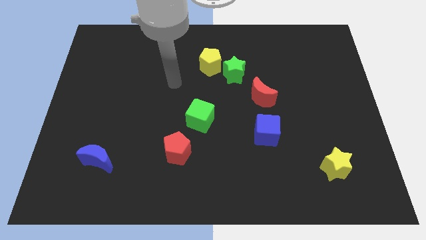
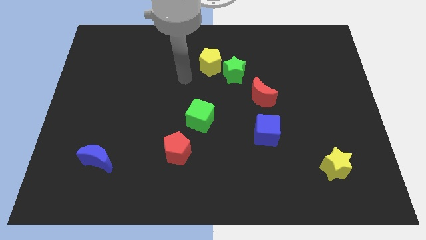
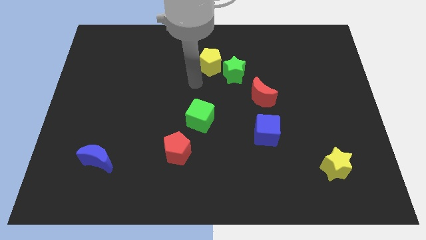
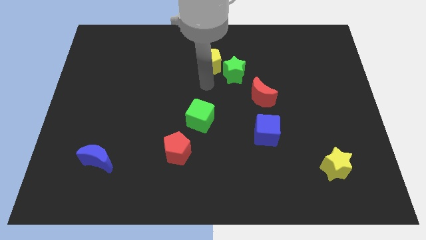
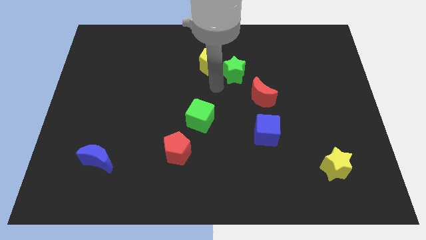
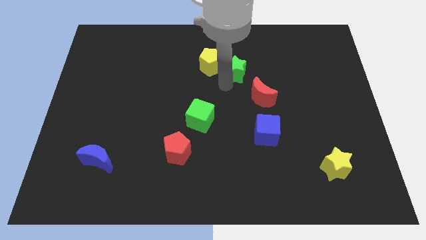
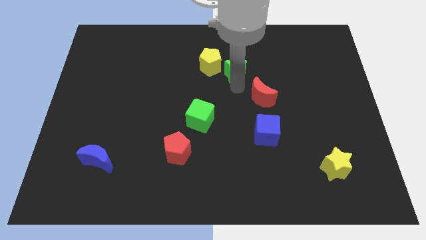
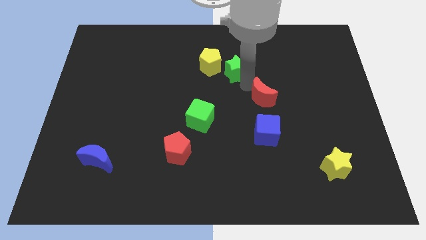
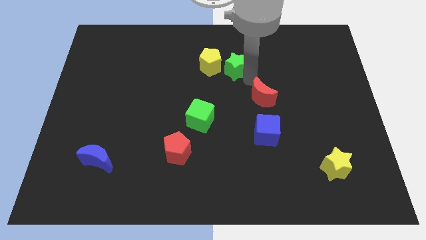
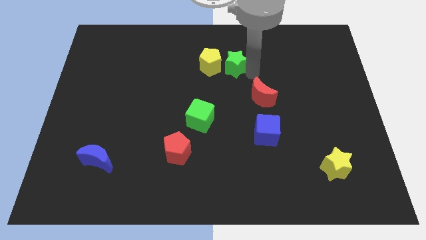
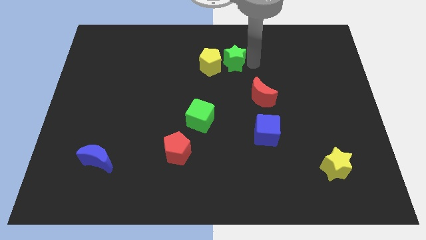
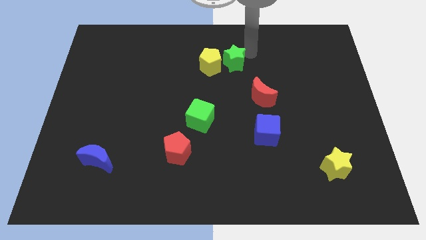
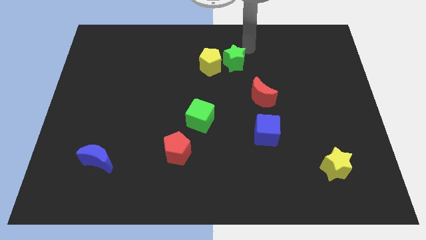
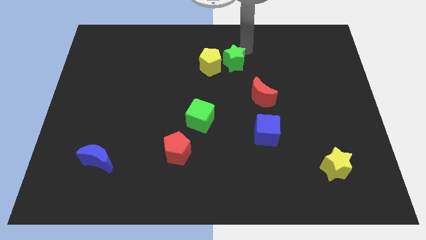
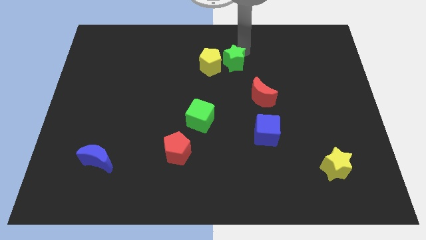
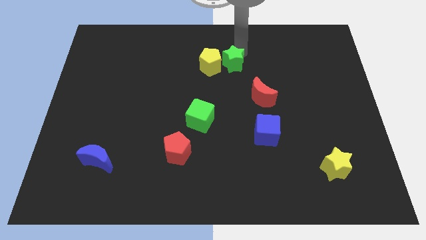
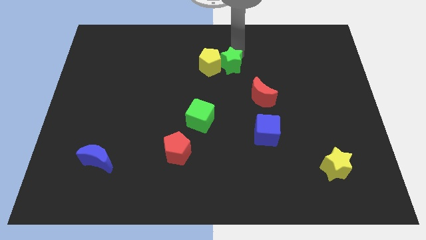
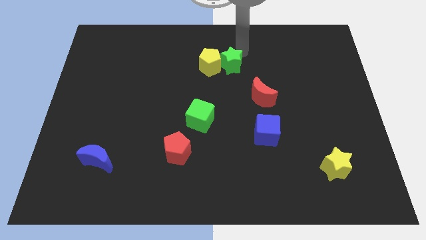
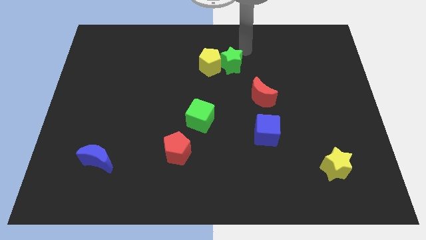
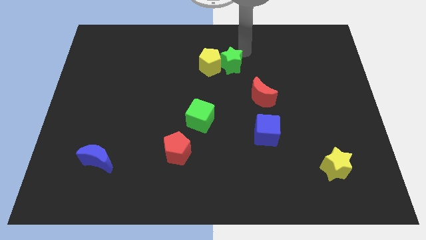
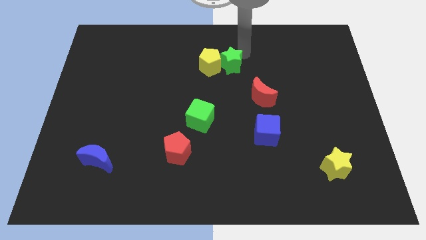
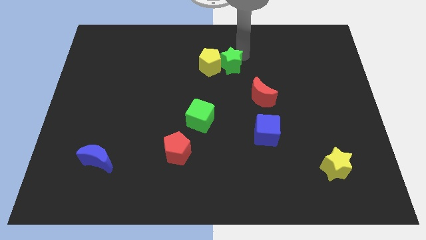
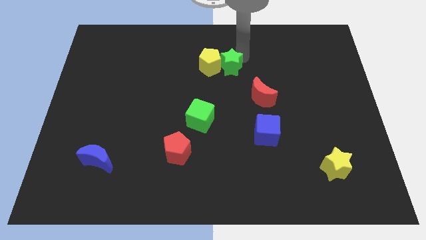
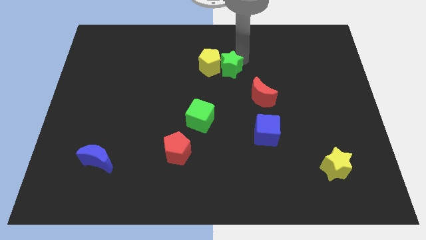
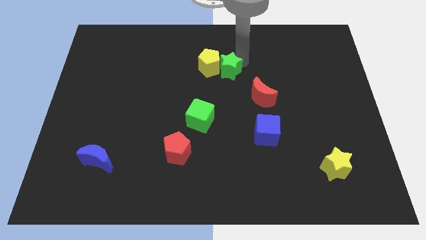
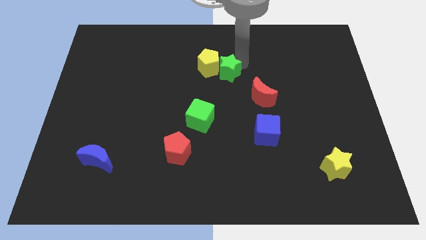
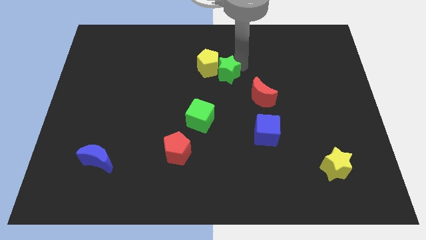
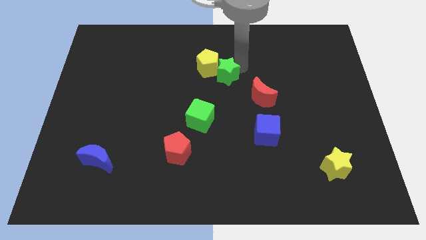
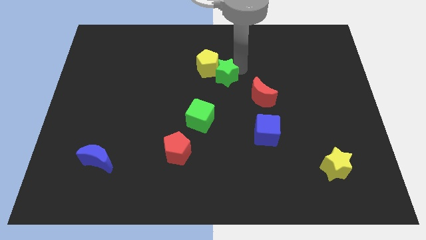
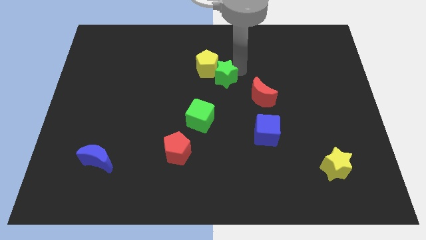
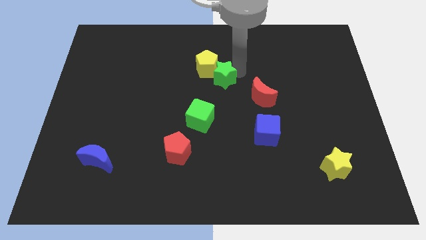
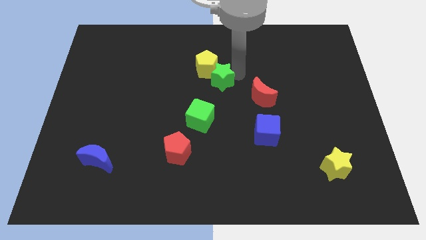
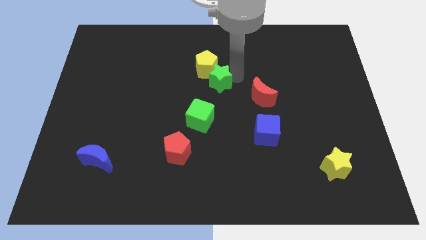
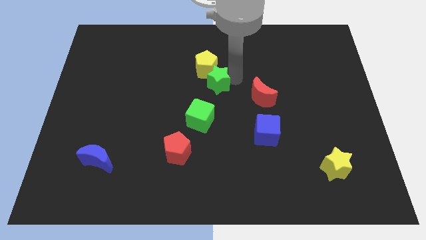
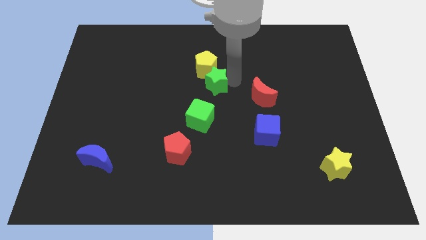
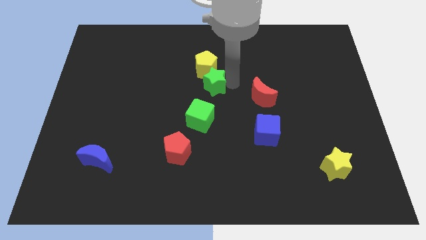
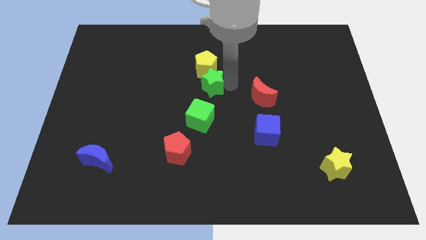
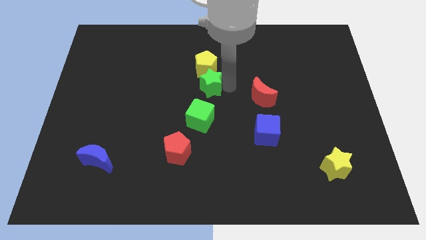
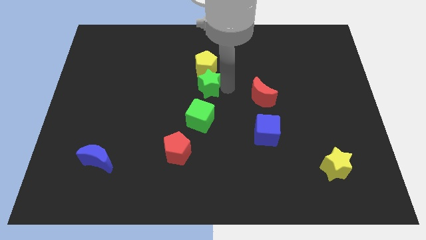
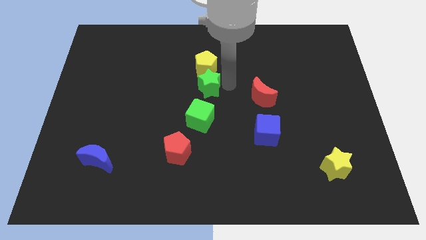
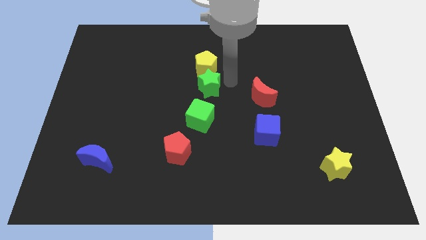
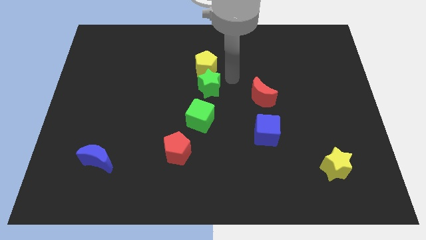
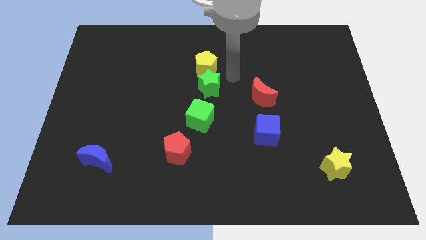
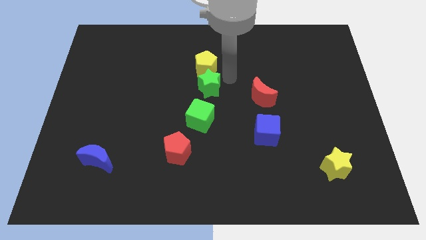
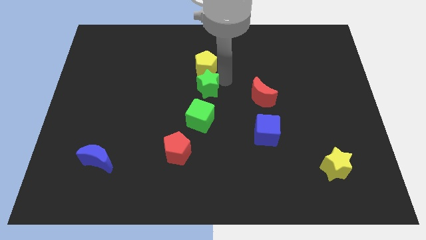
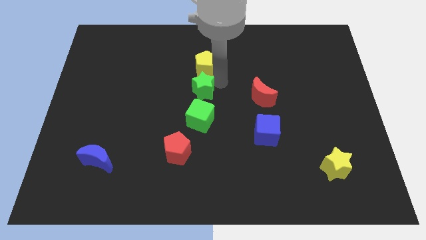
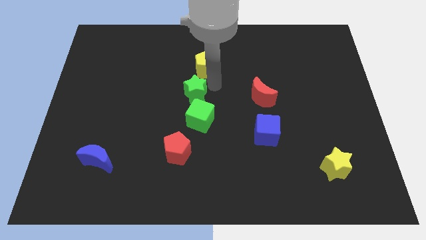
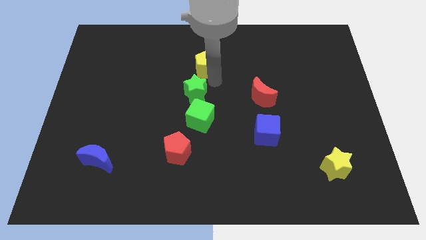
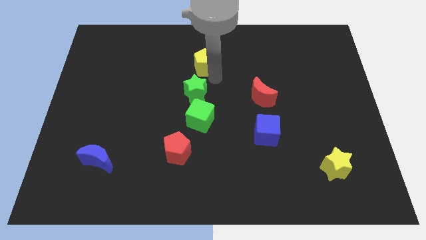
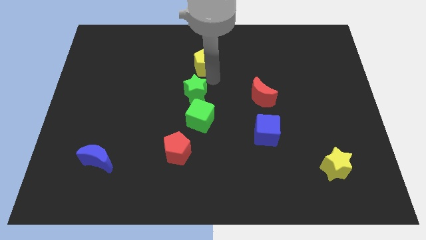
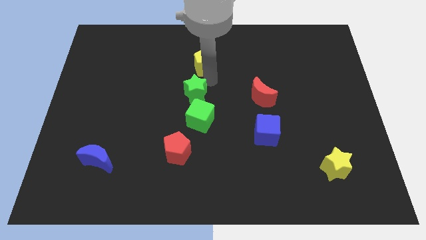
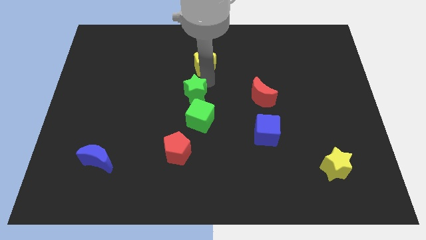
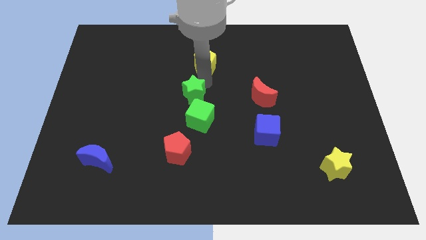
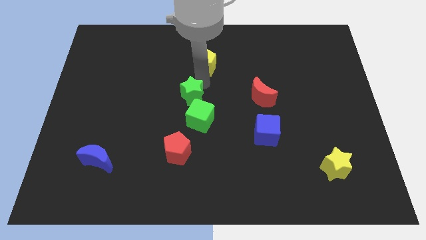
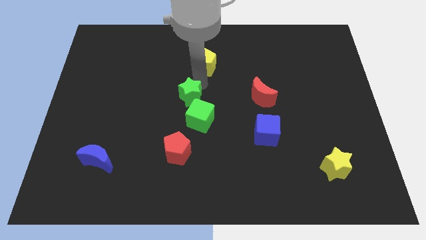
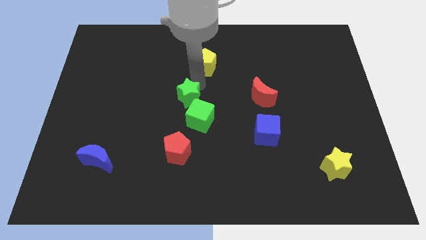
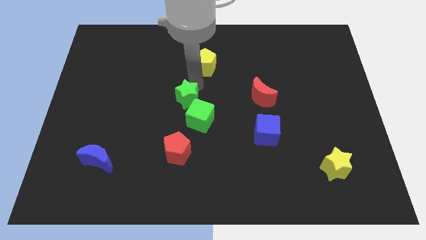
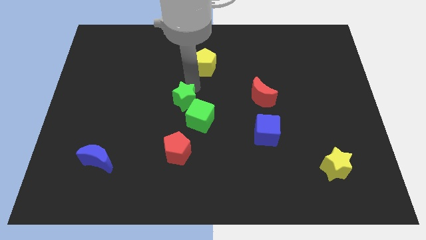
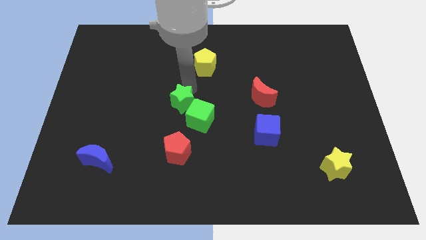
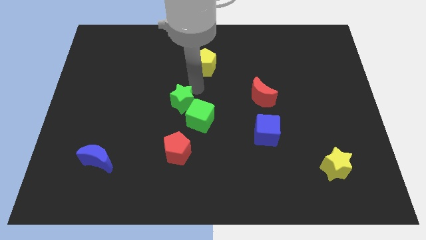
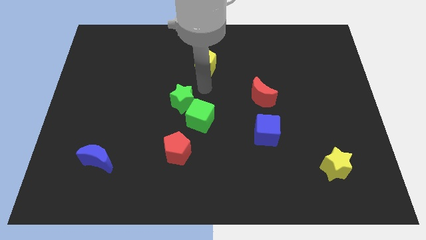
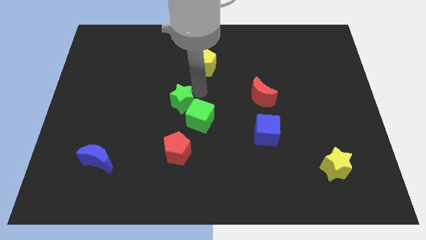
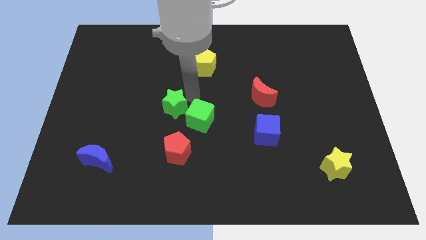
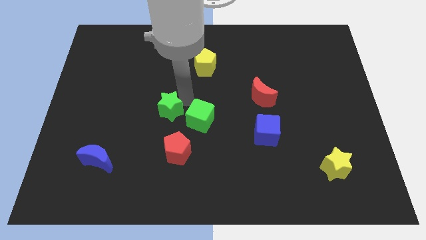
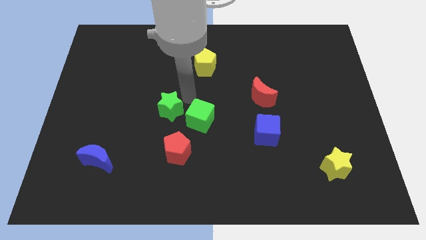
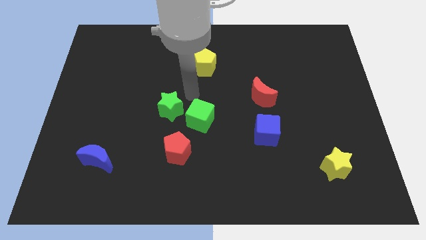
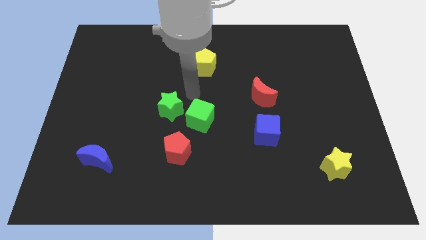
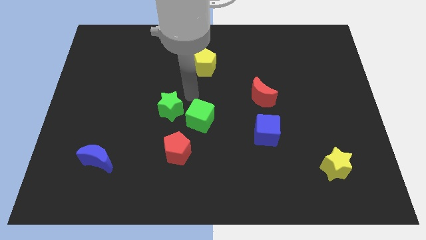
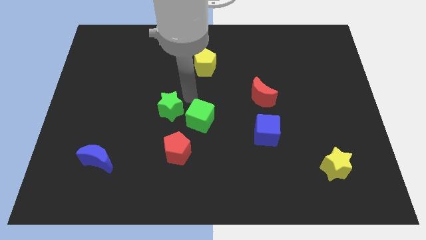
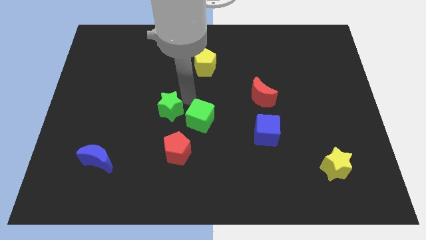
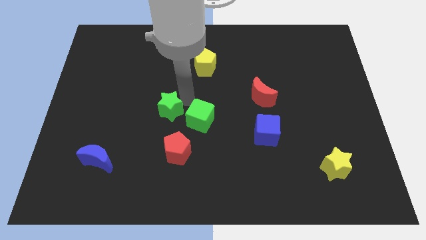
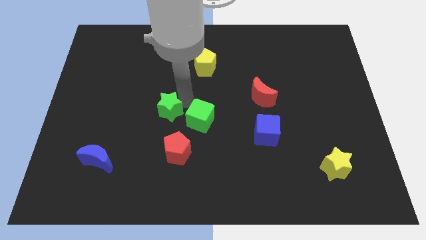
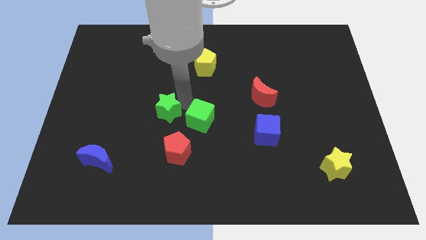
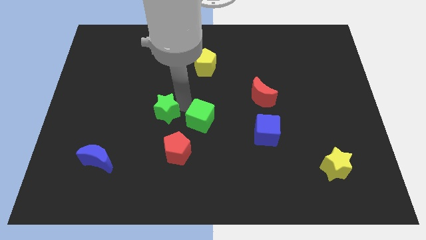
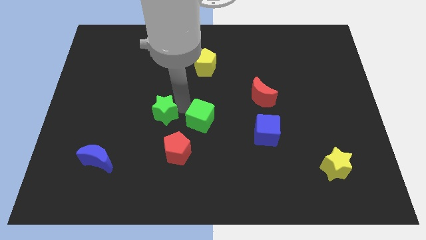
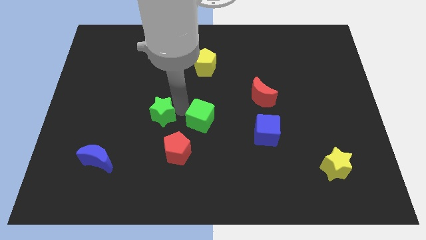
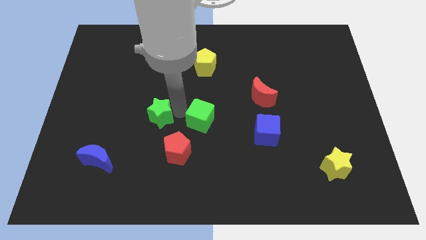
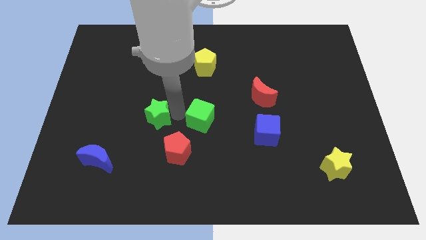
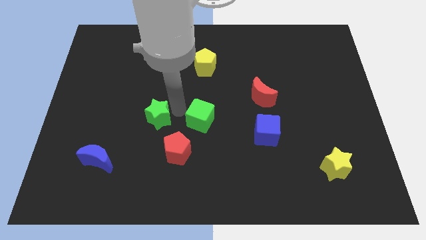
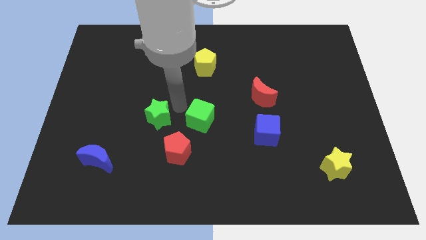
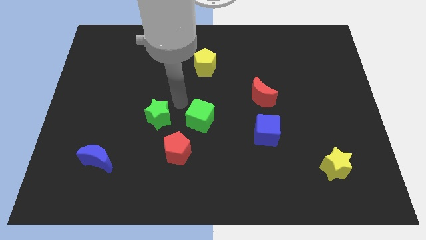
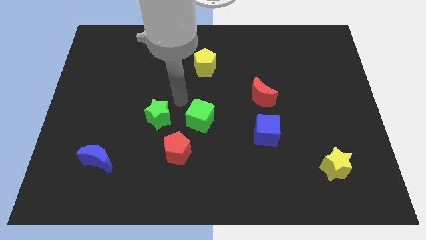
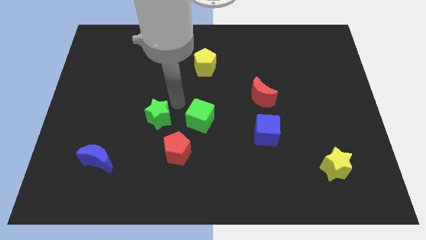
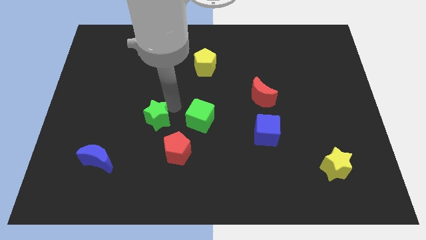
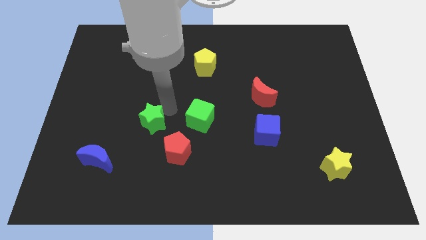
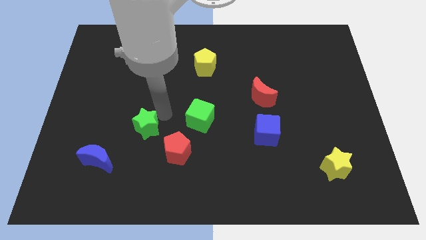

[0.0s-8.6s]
push the green star diagonally up and to the right of the blue moon

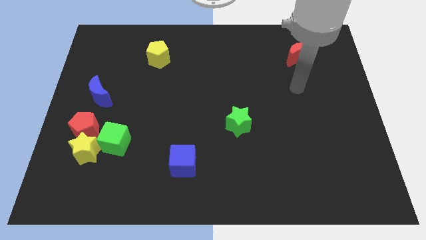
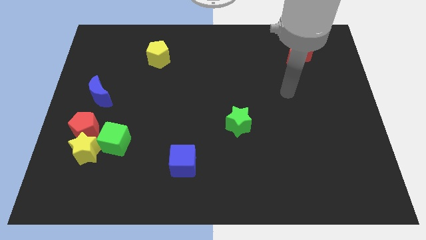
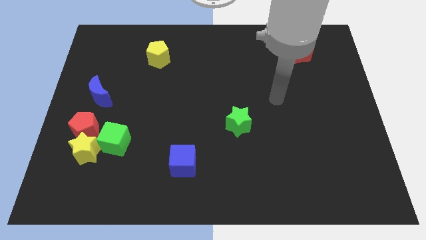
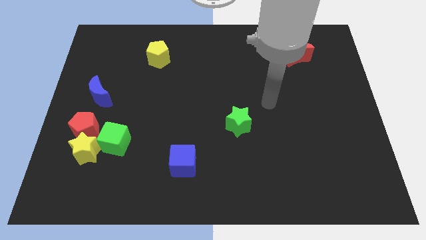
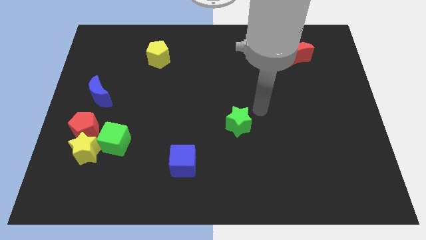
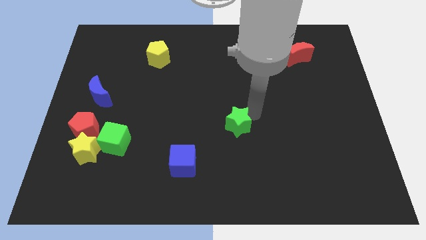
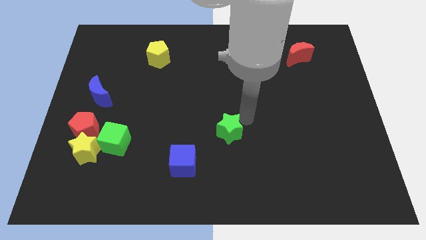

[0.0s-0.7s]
move the green star to the top right of the blue cube
